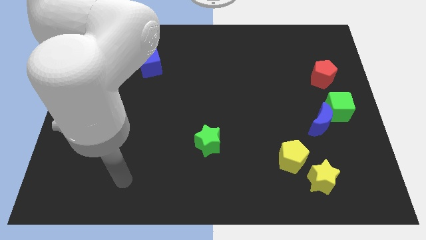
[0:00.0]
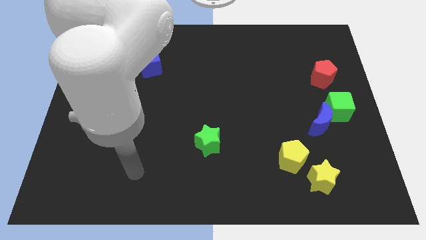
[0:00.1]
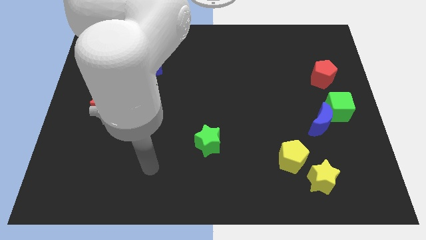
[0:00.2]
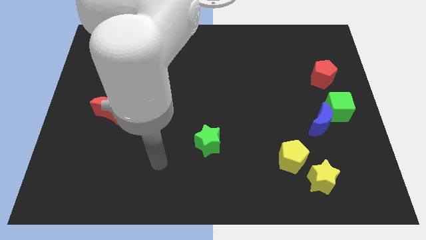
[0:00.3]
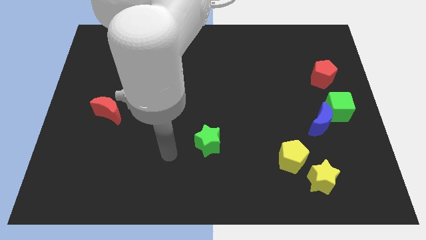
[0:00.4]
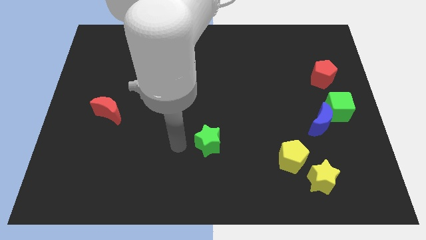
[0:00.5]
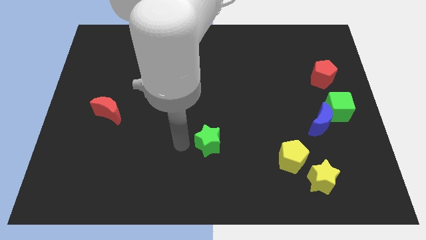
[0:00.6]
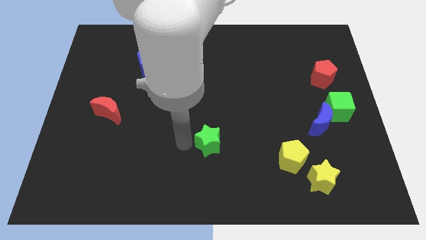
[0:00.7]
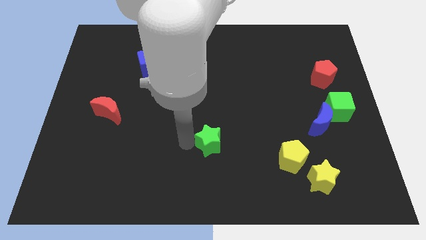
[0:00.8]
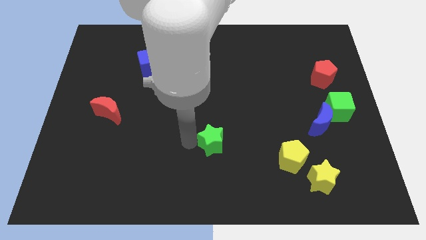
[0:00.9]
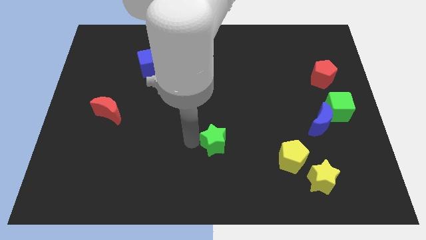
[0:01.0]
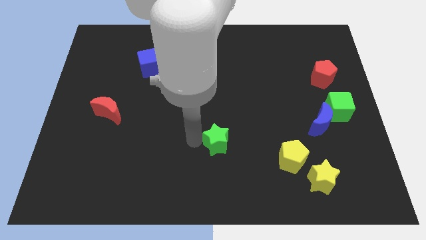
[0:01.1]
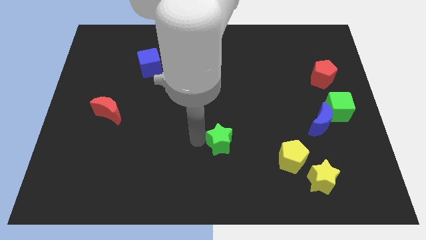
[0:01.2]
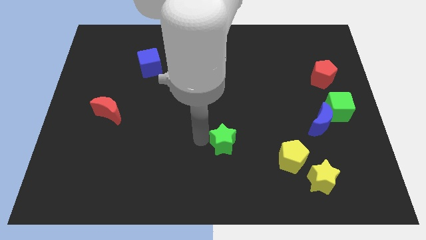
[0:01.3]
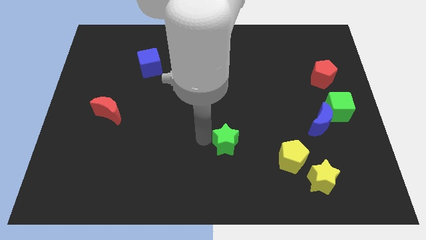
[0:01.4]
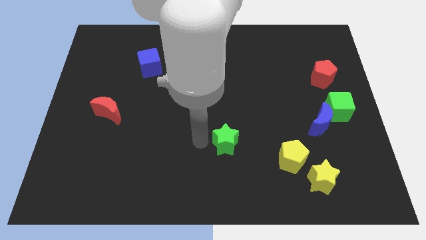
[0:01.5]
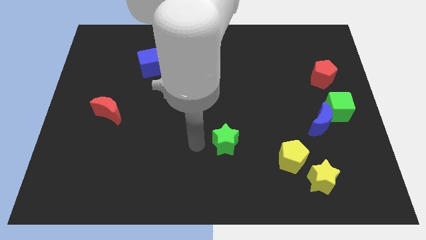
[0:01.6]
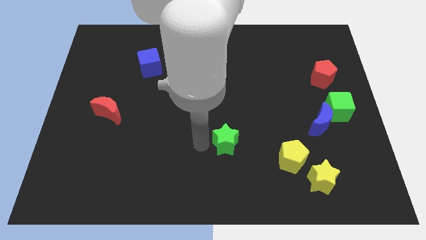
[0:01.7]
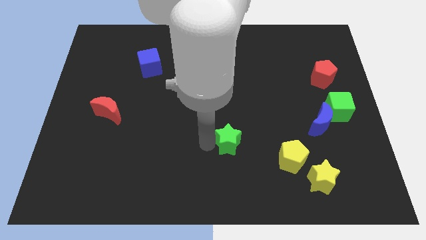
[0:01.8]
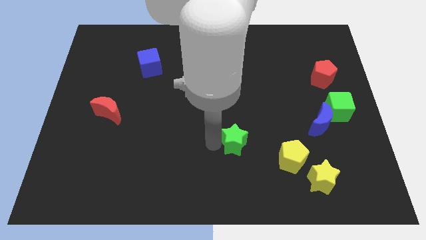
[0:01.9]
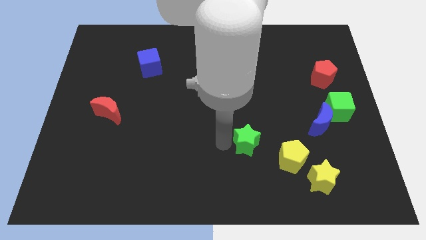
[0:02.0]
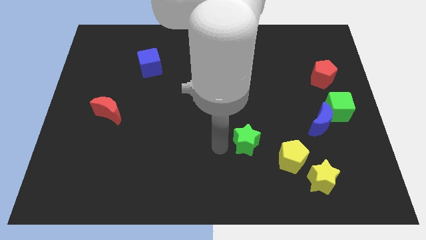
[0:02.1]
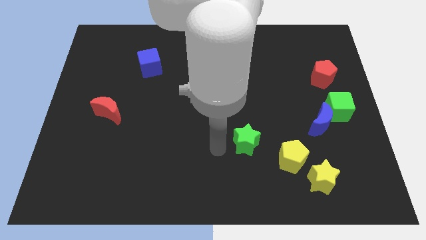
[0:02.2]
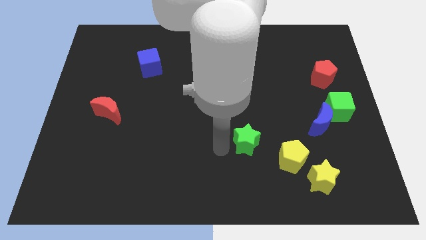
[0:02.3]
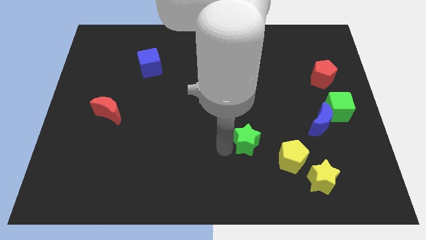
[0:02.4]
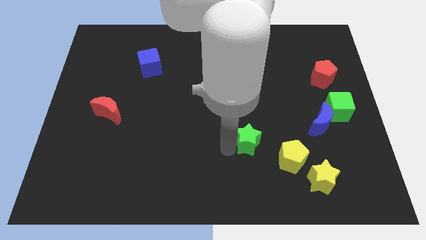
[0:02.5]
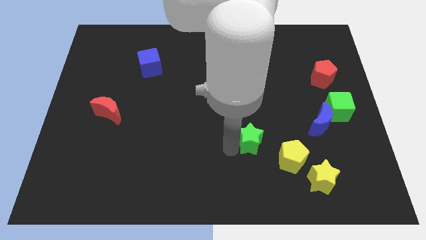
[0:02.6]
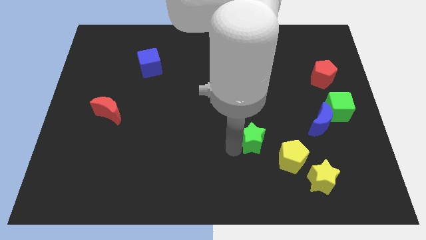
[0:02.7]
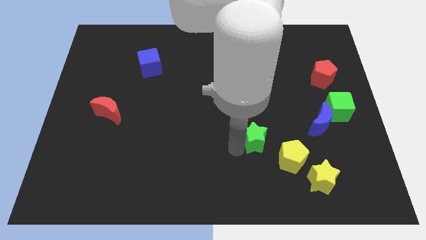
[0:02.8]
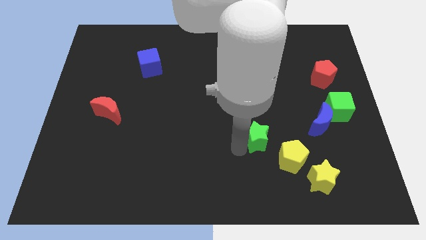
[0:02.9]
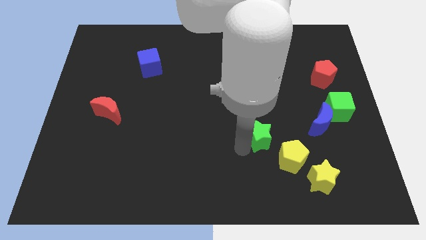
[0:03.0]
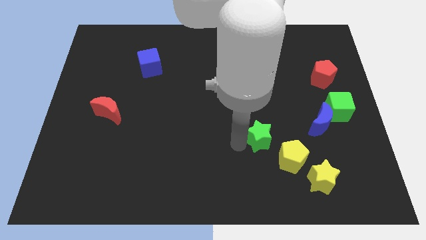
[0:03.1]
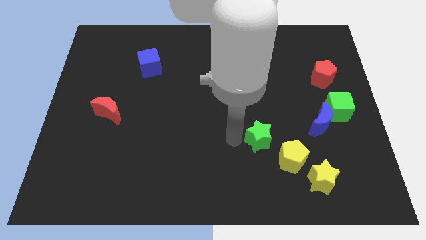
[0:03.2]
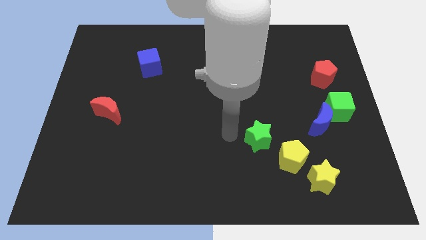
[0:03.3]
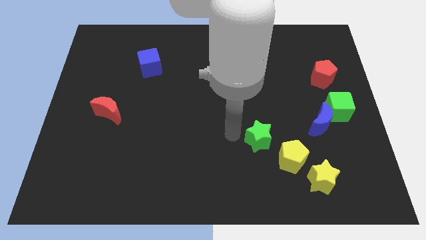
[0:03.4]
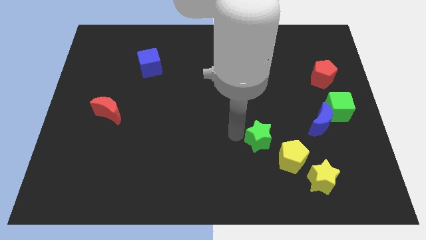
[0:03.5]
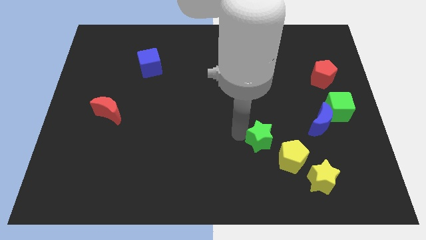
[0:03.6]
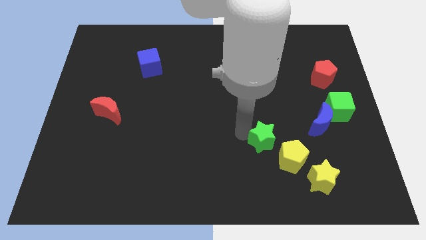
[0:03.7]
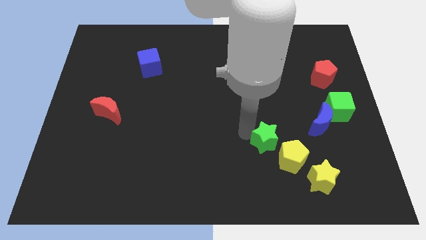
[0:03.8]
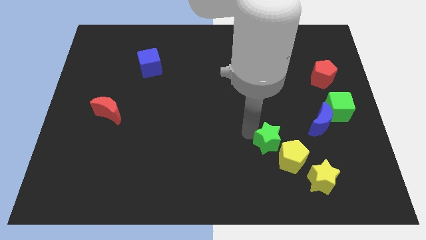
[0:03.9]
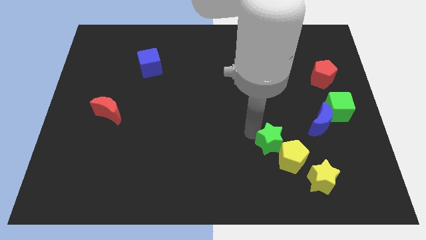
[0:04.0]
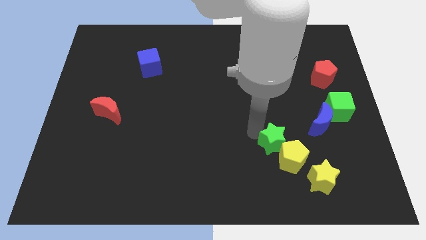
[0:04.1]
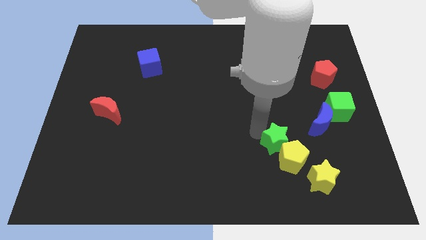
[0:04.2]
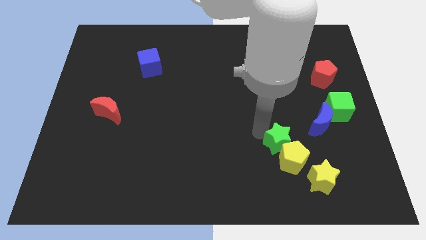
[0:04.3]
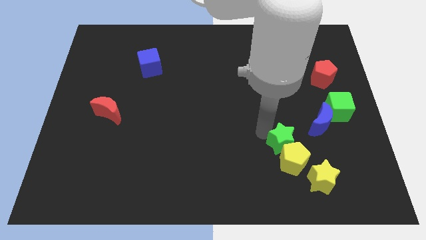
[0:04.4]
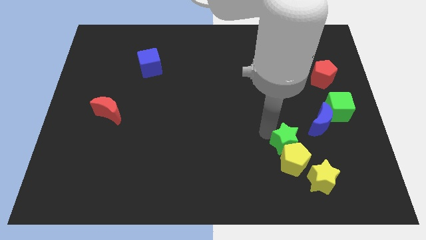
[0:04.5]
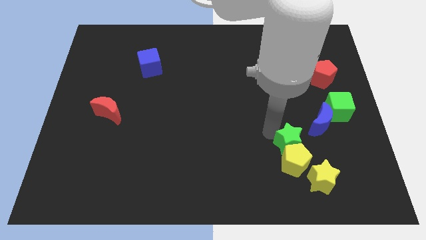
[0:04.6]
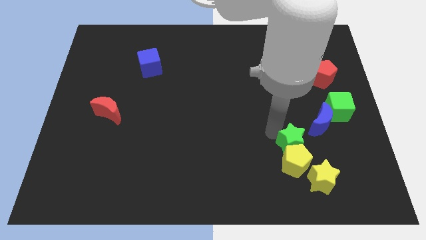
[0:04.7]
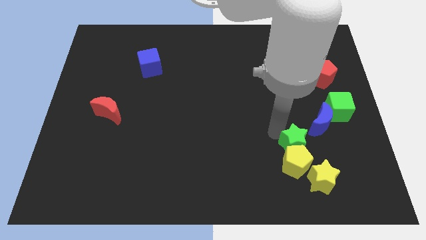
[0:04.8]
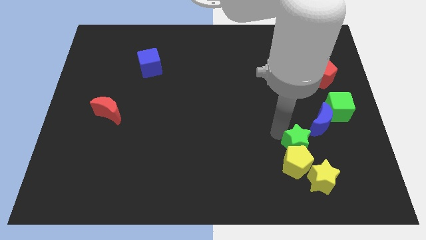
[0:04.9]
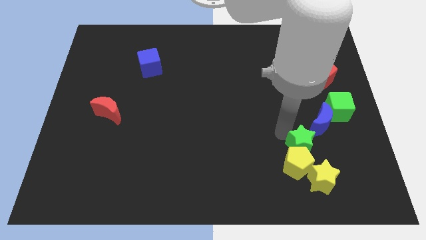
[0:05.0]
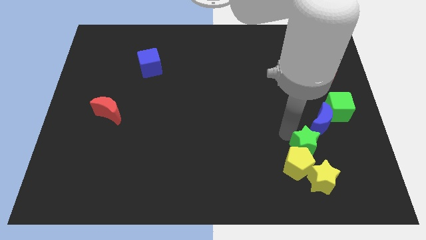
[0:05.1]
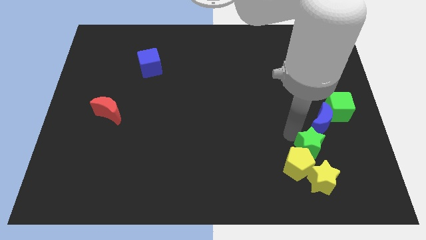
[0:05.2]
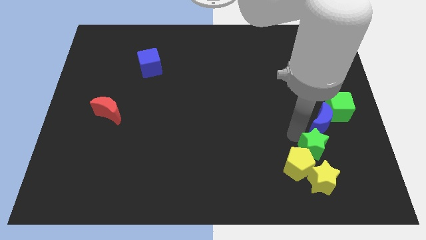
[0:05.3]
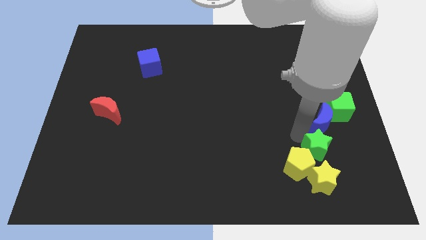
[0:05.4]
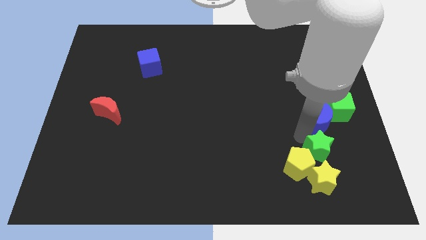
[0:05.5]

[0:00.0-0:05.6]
put the green star to the top right of the yellow star

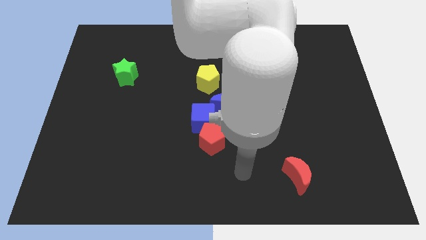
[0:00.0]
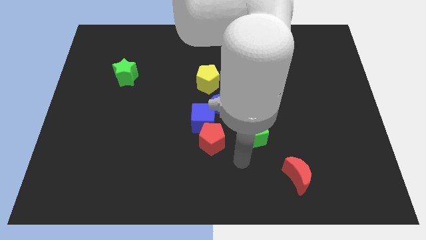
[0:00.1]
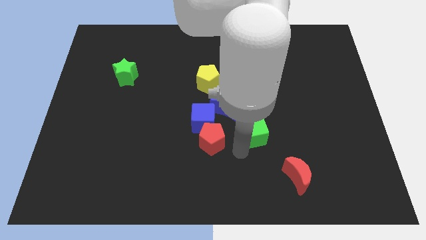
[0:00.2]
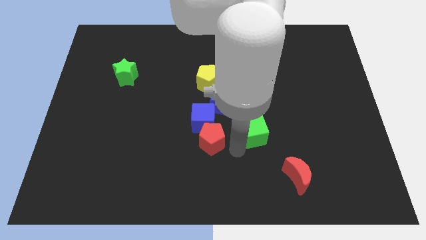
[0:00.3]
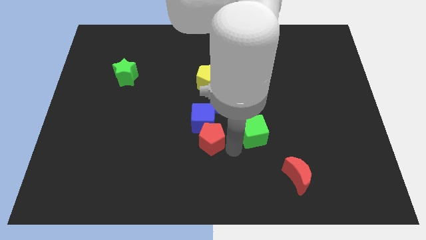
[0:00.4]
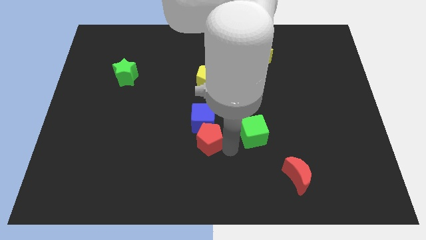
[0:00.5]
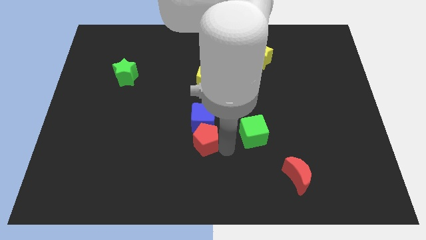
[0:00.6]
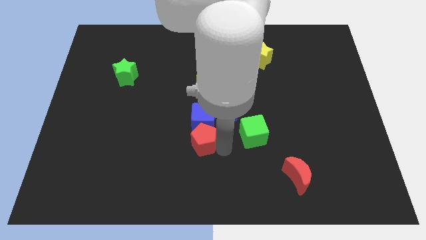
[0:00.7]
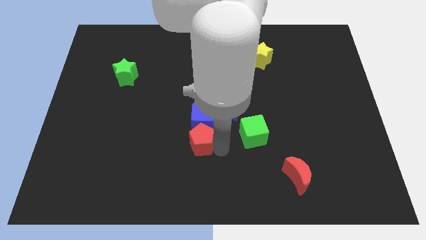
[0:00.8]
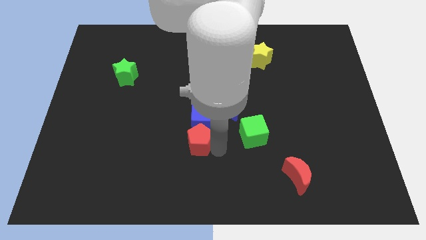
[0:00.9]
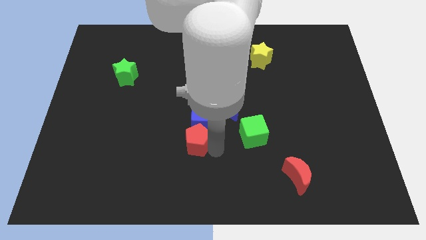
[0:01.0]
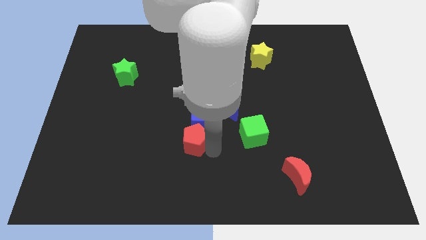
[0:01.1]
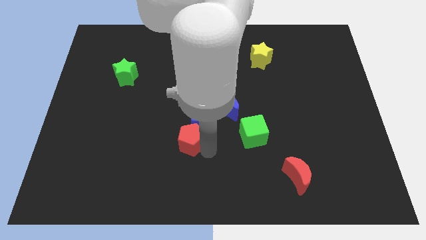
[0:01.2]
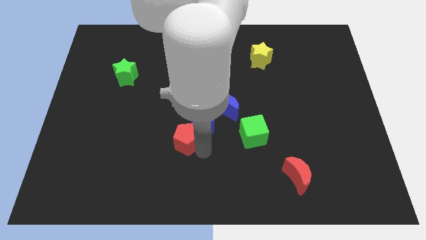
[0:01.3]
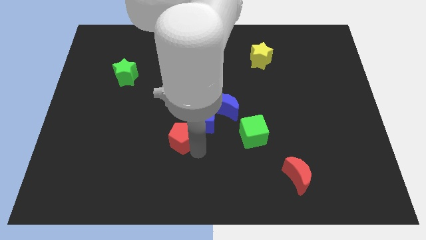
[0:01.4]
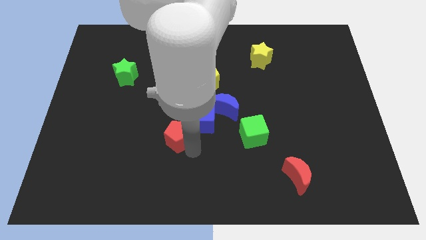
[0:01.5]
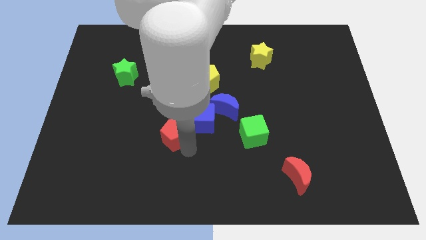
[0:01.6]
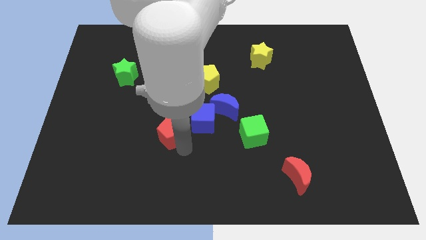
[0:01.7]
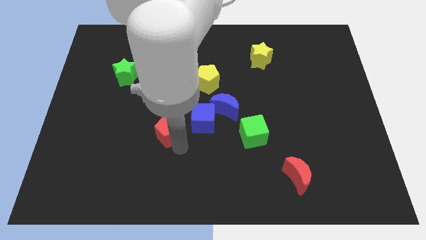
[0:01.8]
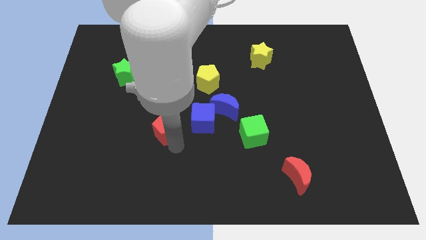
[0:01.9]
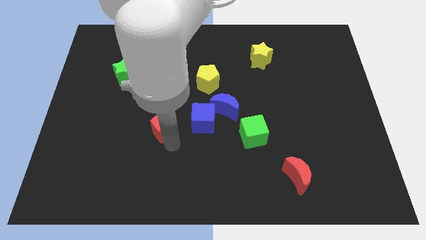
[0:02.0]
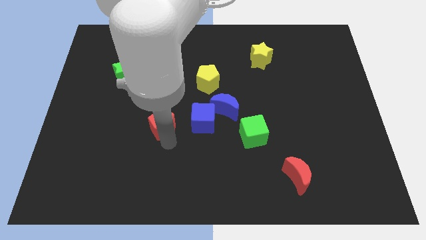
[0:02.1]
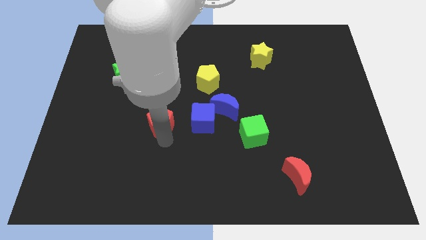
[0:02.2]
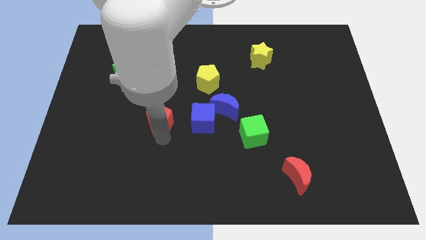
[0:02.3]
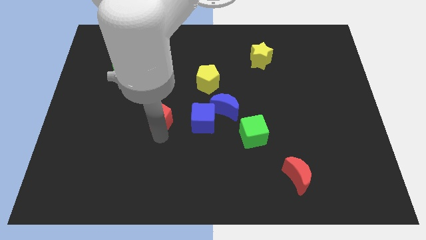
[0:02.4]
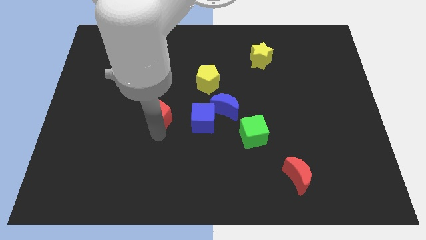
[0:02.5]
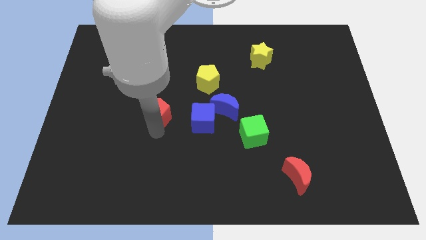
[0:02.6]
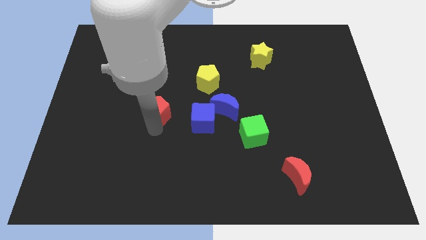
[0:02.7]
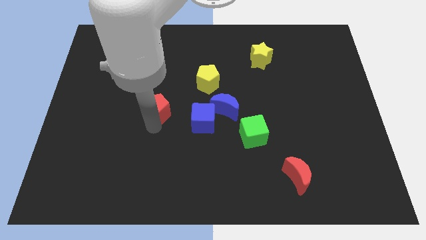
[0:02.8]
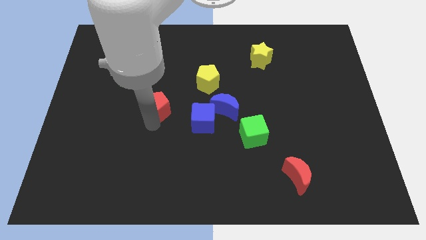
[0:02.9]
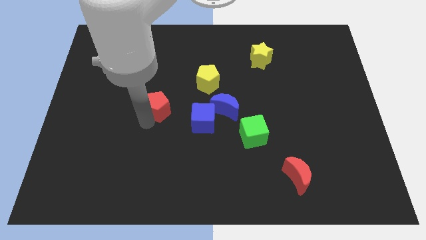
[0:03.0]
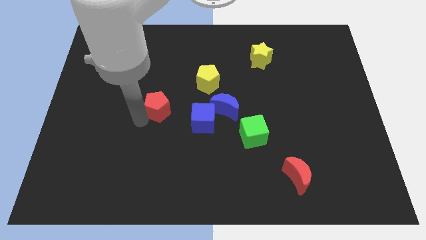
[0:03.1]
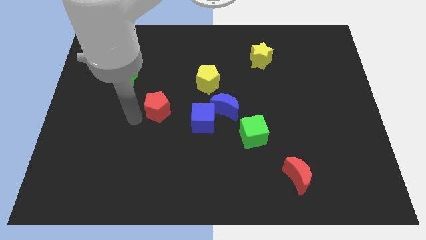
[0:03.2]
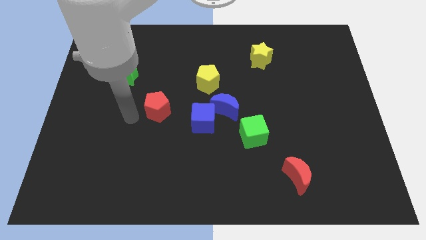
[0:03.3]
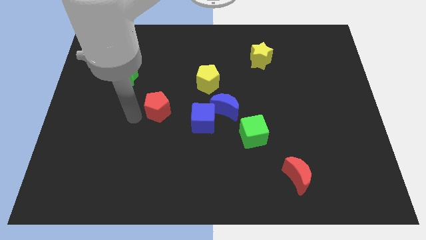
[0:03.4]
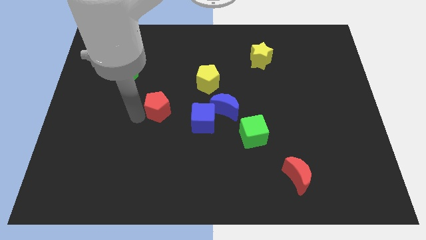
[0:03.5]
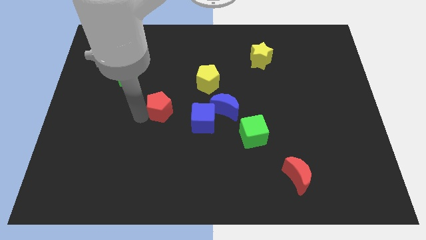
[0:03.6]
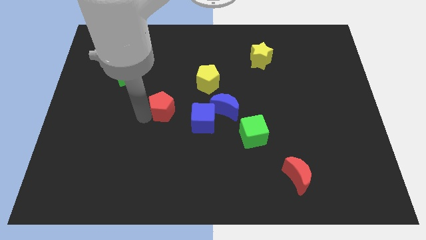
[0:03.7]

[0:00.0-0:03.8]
push the red pentagon to the top left side of the blue cube
